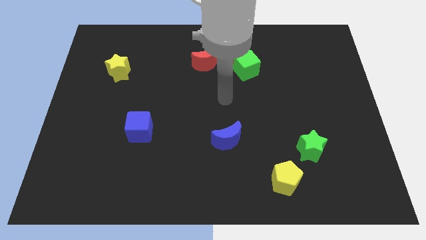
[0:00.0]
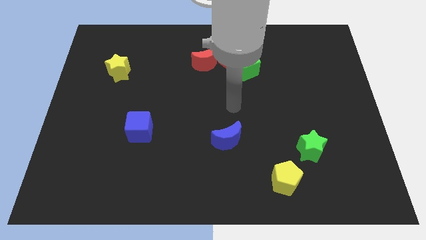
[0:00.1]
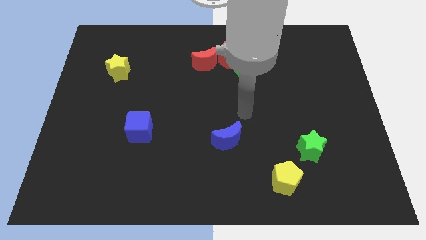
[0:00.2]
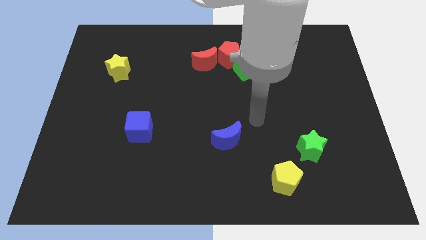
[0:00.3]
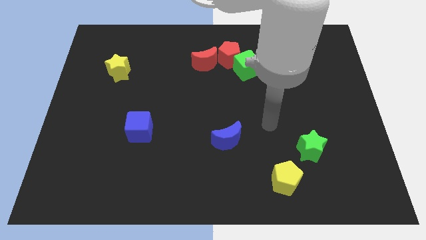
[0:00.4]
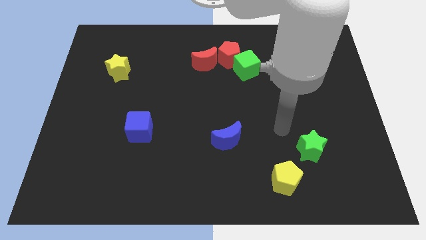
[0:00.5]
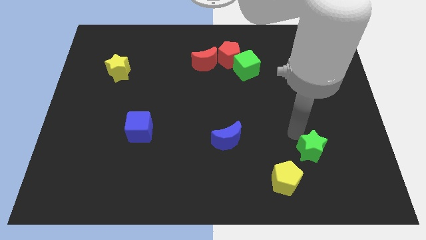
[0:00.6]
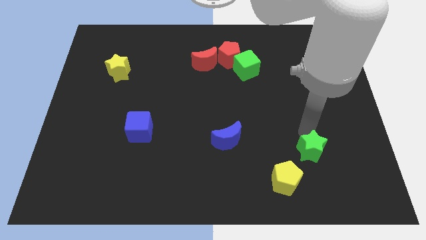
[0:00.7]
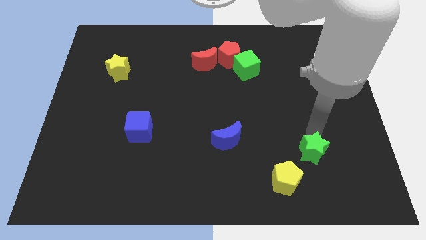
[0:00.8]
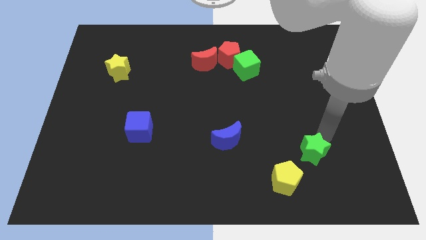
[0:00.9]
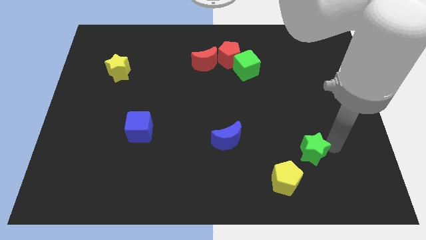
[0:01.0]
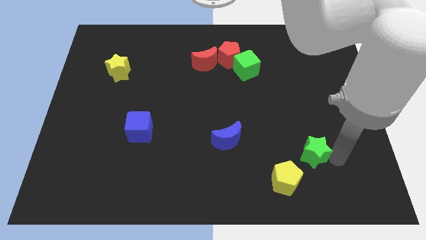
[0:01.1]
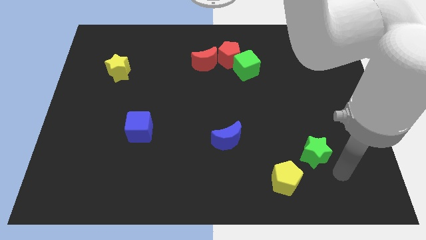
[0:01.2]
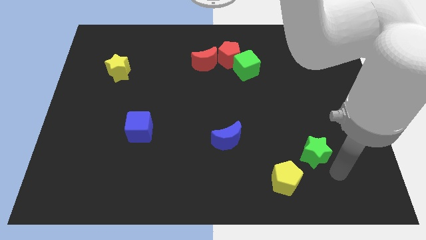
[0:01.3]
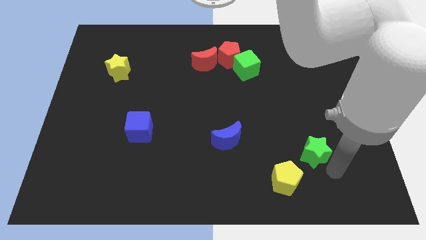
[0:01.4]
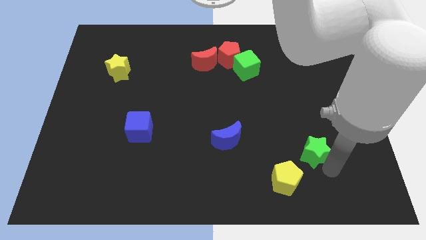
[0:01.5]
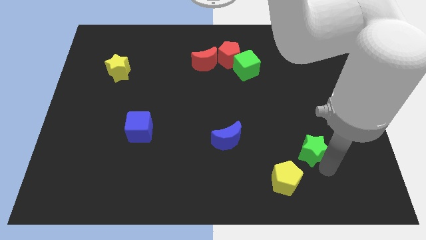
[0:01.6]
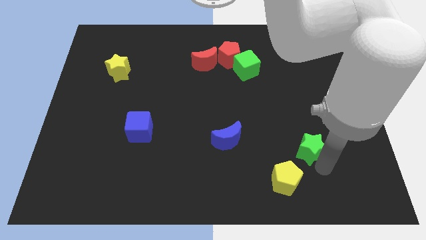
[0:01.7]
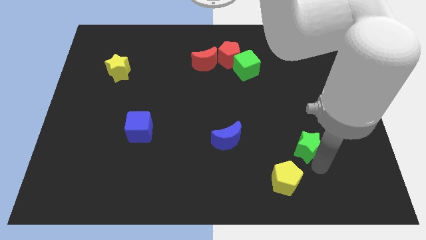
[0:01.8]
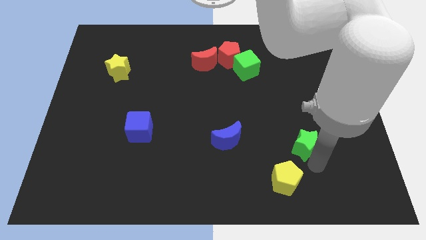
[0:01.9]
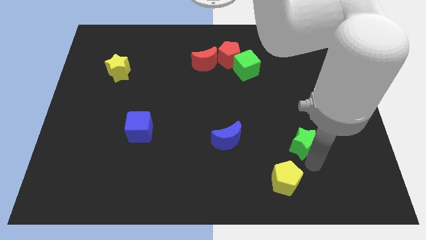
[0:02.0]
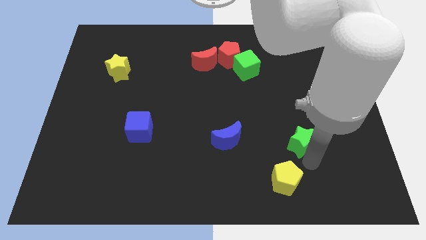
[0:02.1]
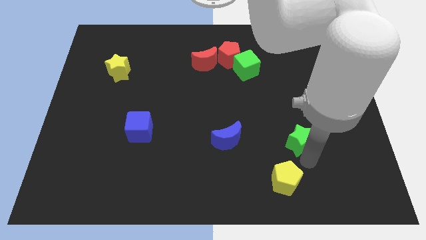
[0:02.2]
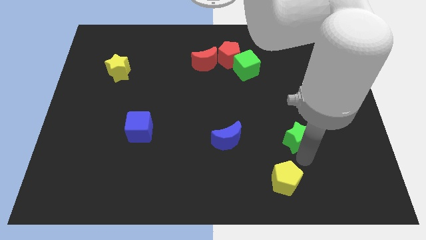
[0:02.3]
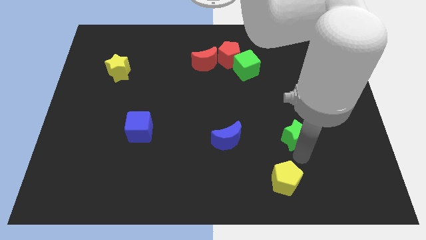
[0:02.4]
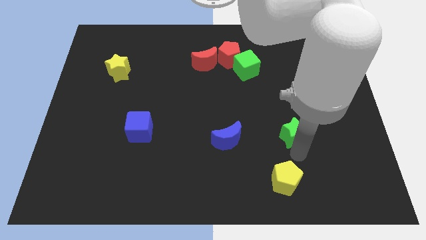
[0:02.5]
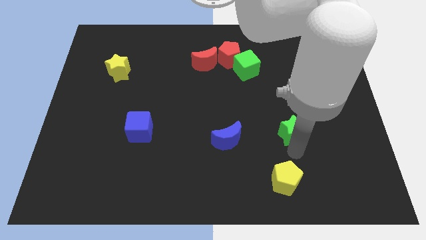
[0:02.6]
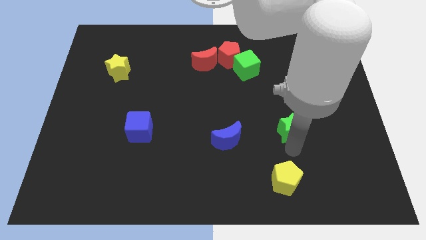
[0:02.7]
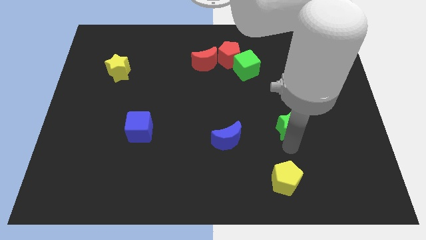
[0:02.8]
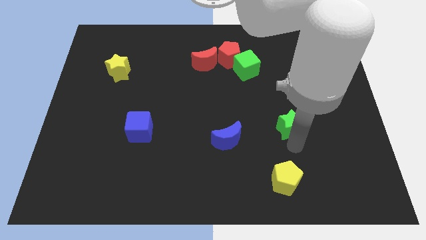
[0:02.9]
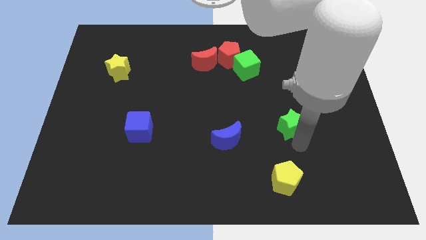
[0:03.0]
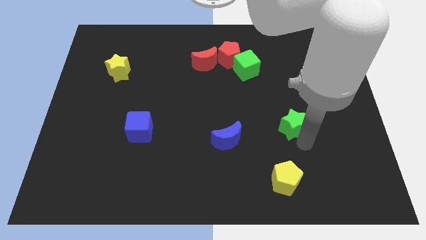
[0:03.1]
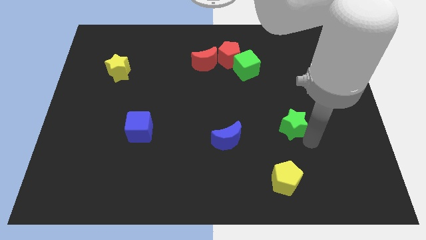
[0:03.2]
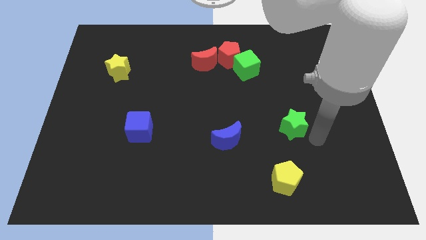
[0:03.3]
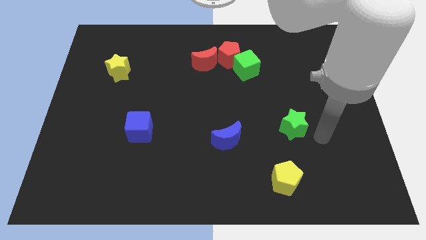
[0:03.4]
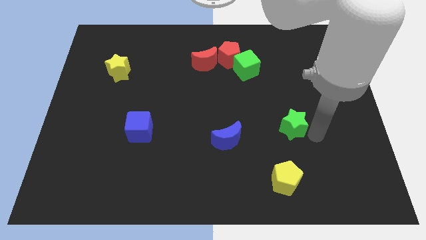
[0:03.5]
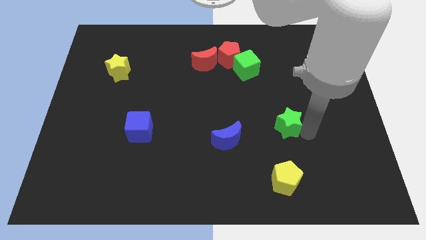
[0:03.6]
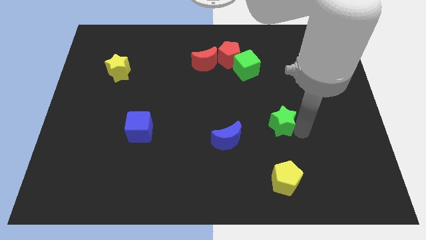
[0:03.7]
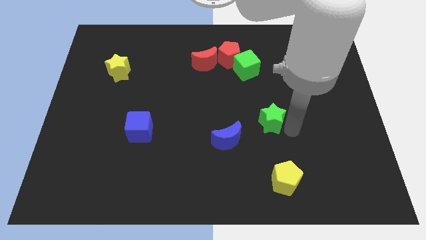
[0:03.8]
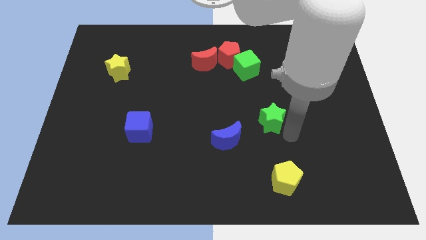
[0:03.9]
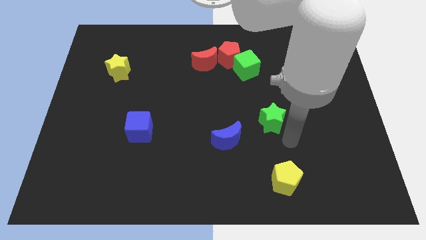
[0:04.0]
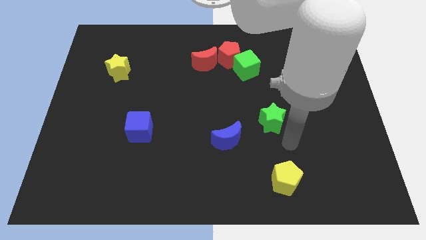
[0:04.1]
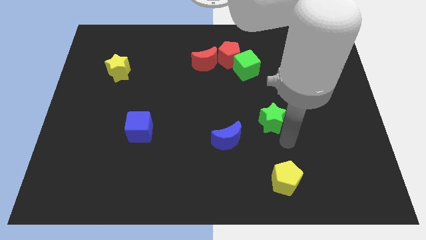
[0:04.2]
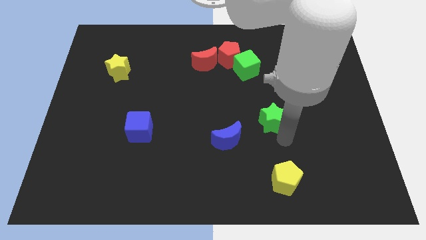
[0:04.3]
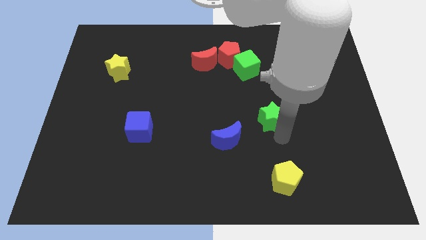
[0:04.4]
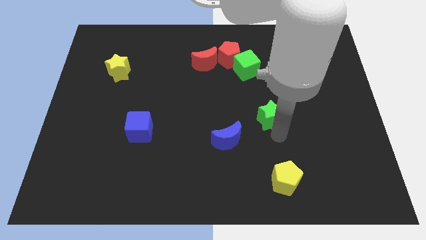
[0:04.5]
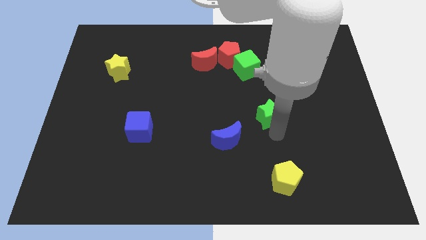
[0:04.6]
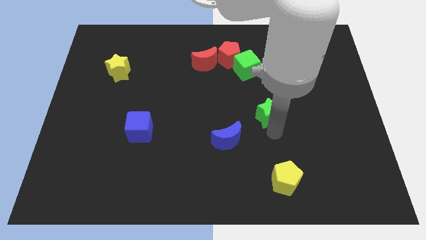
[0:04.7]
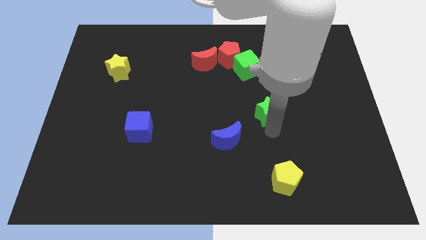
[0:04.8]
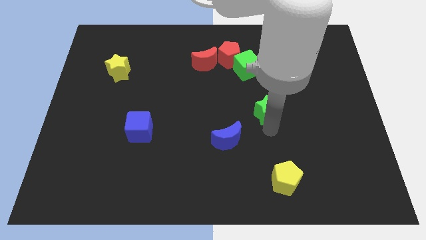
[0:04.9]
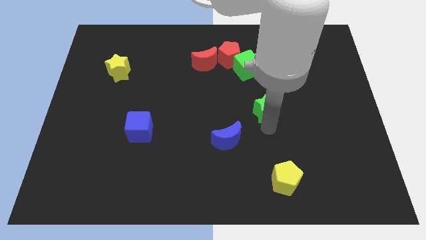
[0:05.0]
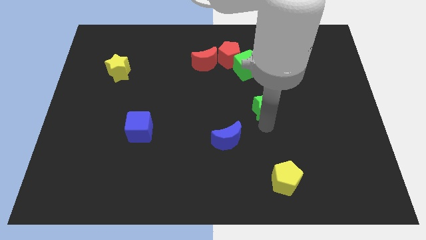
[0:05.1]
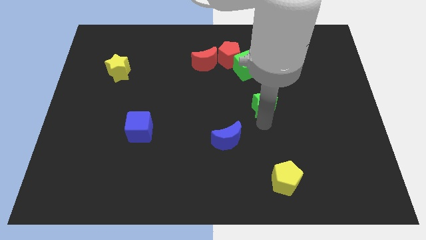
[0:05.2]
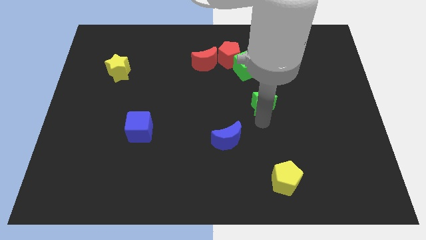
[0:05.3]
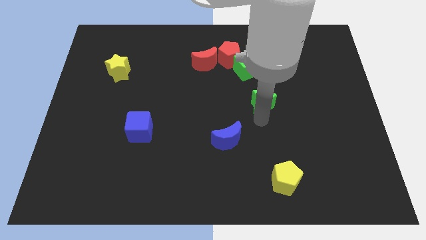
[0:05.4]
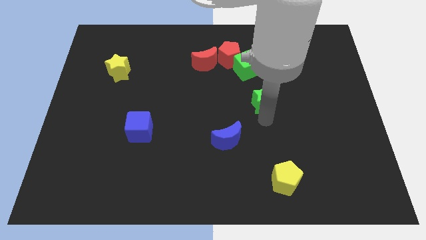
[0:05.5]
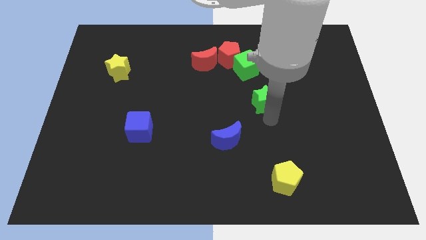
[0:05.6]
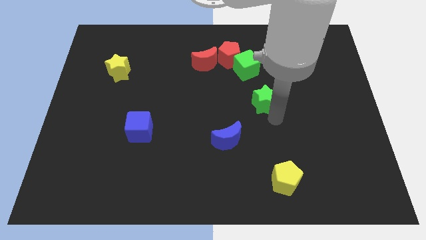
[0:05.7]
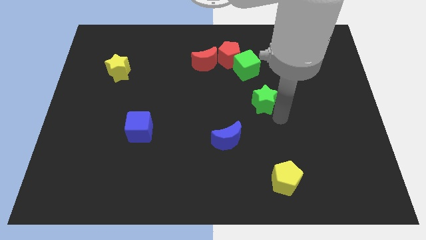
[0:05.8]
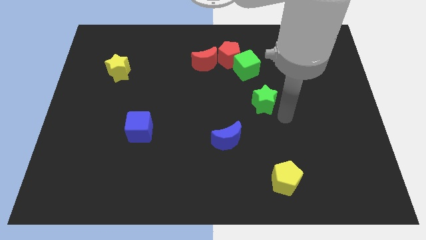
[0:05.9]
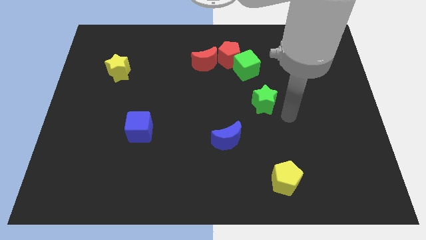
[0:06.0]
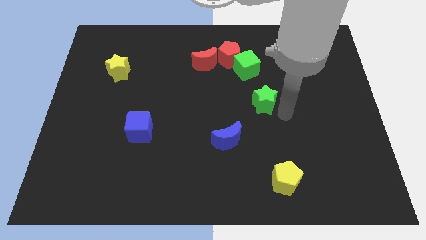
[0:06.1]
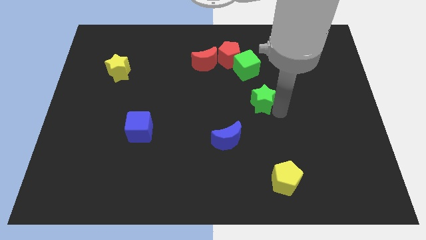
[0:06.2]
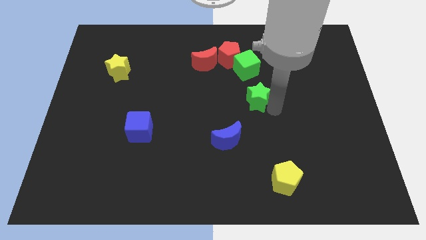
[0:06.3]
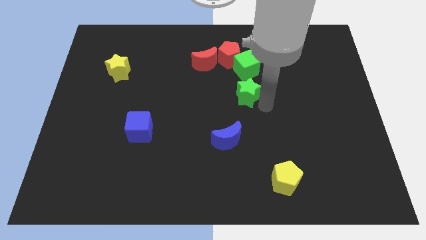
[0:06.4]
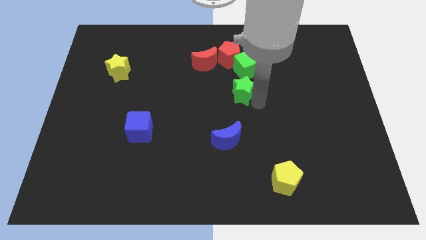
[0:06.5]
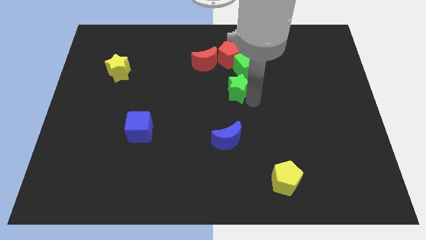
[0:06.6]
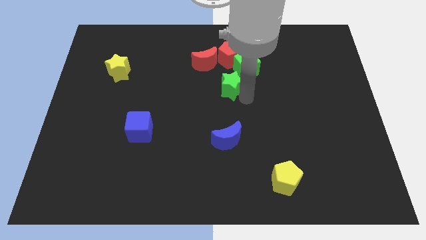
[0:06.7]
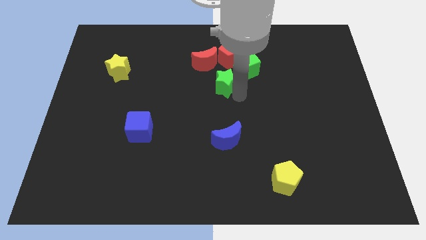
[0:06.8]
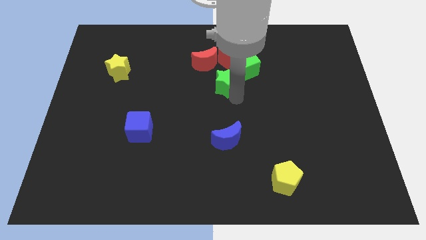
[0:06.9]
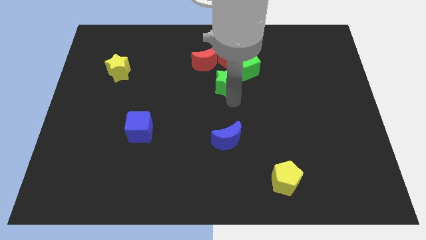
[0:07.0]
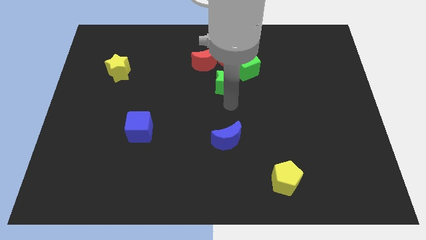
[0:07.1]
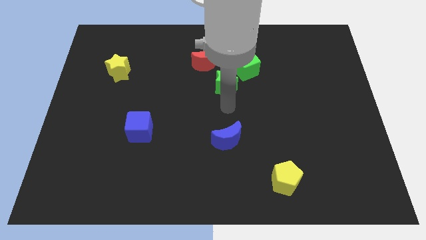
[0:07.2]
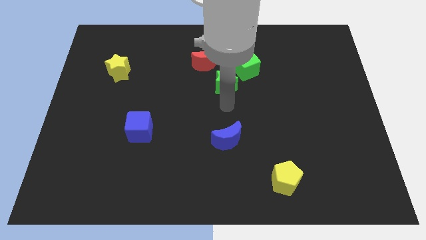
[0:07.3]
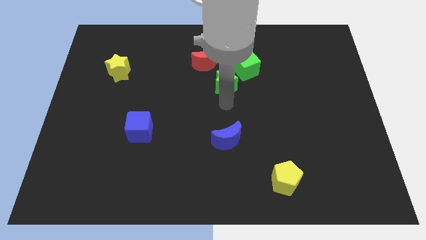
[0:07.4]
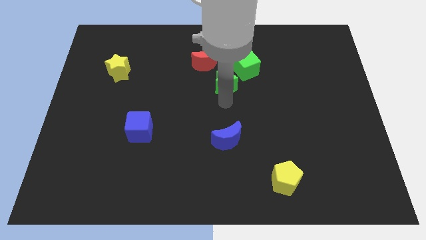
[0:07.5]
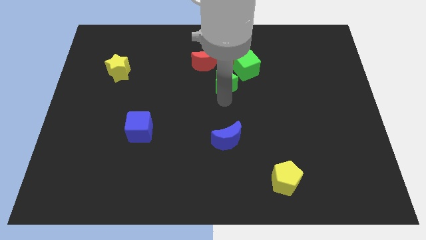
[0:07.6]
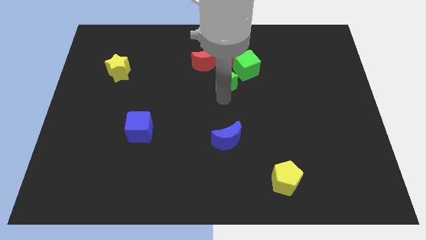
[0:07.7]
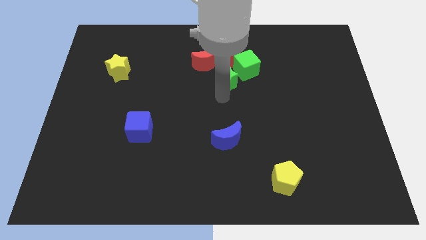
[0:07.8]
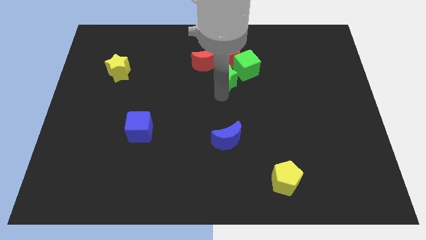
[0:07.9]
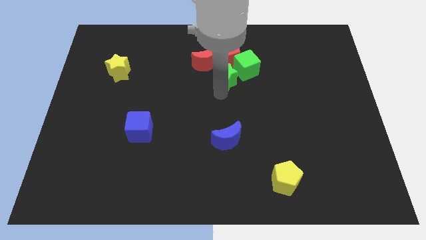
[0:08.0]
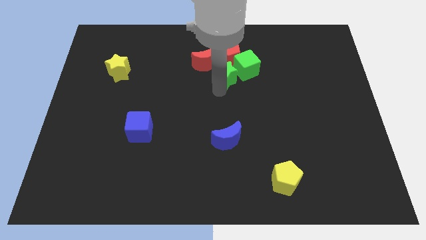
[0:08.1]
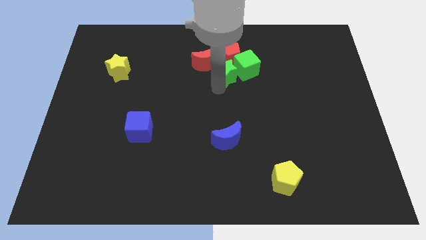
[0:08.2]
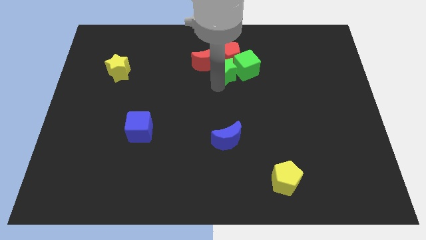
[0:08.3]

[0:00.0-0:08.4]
put the green star towards the red pentagon
